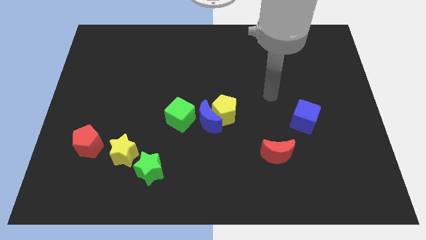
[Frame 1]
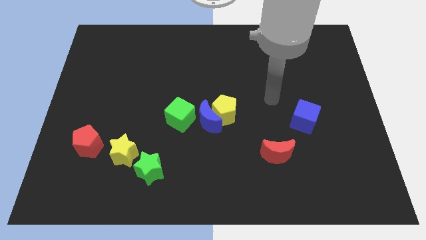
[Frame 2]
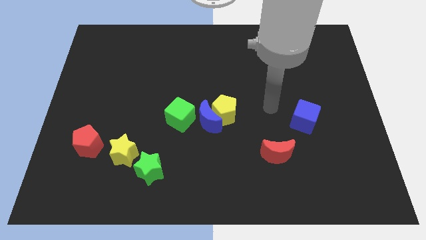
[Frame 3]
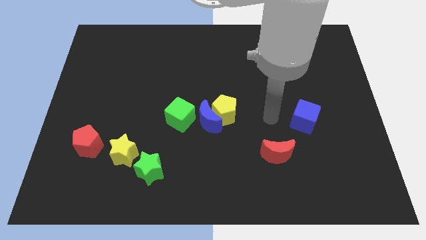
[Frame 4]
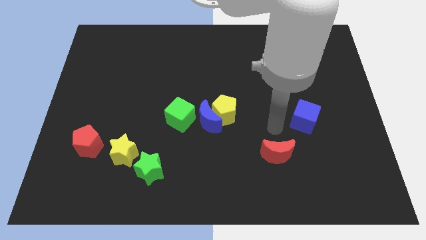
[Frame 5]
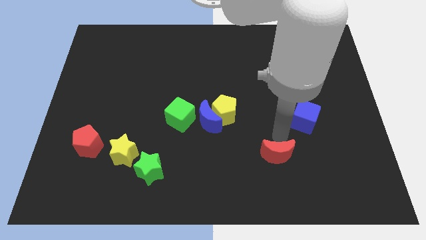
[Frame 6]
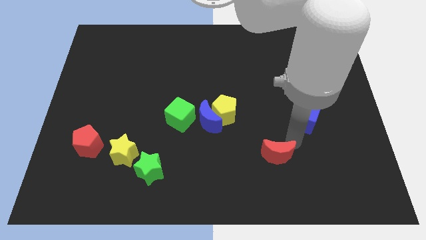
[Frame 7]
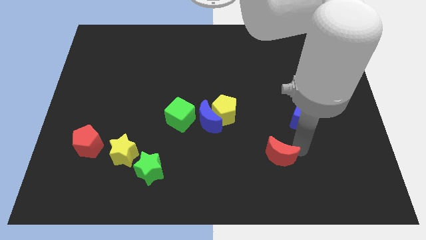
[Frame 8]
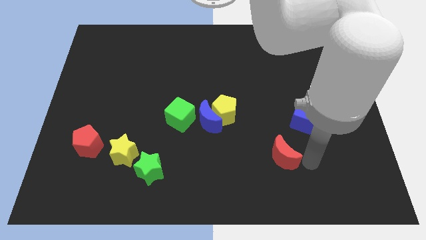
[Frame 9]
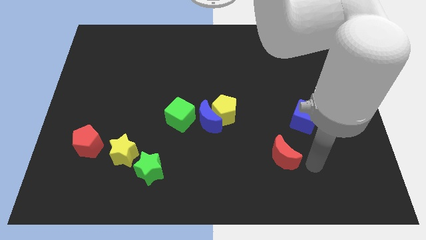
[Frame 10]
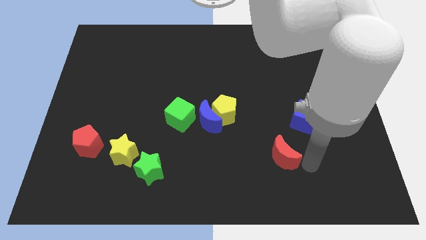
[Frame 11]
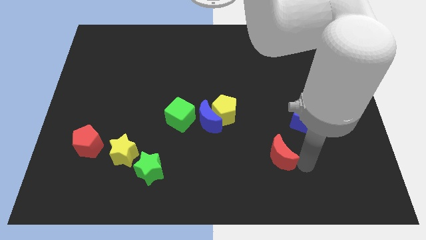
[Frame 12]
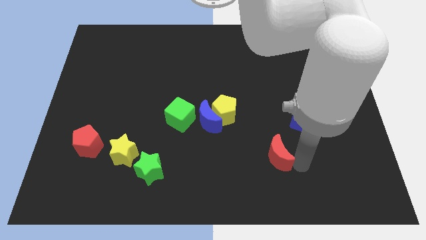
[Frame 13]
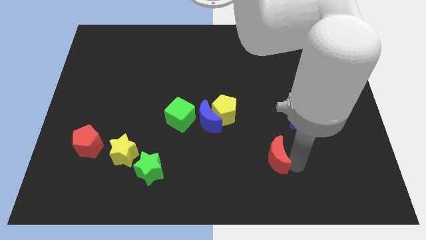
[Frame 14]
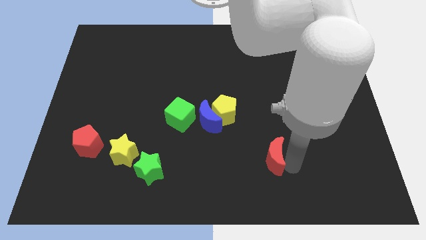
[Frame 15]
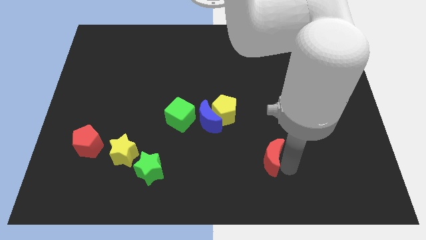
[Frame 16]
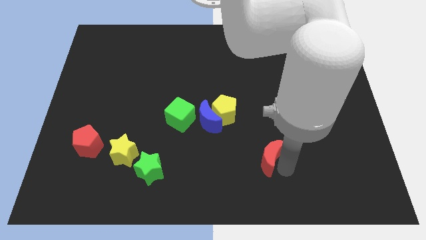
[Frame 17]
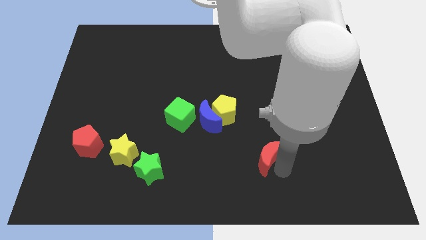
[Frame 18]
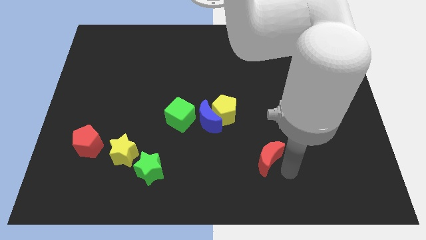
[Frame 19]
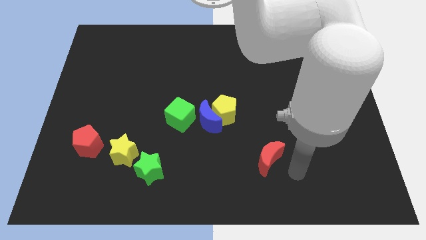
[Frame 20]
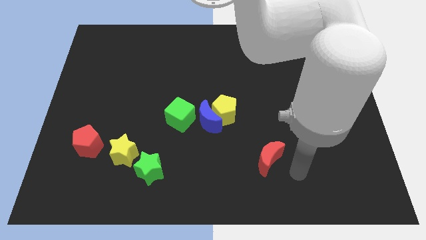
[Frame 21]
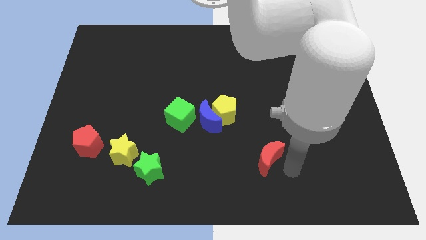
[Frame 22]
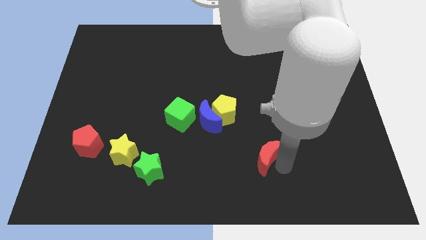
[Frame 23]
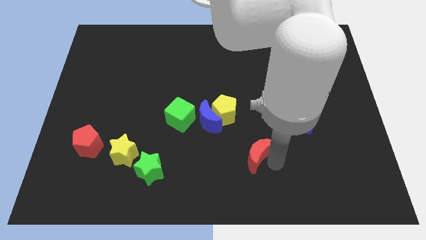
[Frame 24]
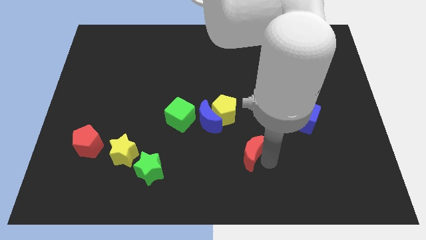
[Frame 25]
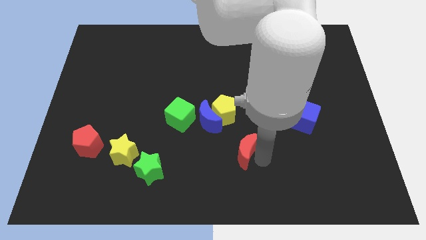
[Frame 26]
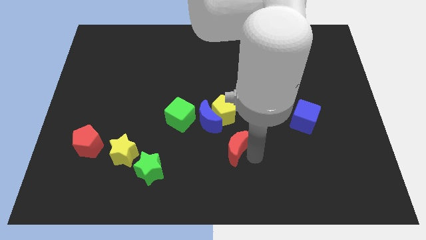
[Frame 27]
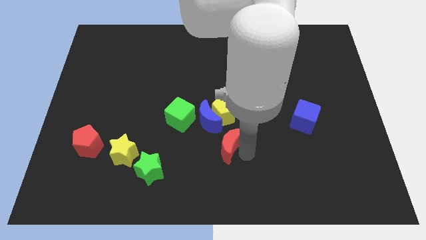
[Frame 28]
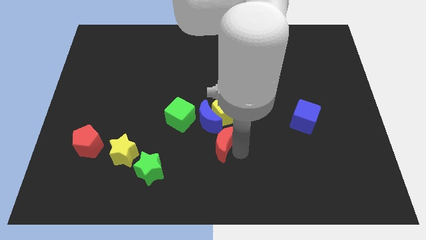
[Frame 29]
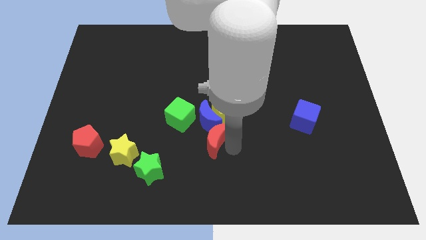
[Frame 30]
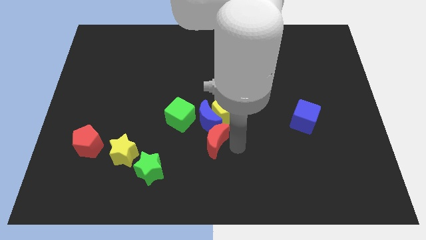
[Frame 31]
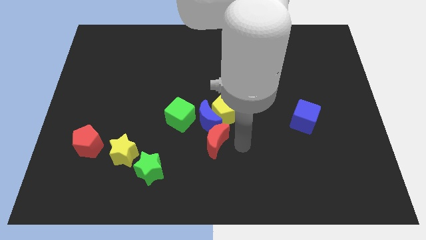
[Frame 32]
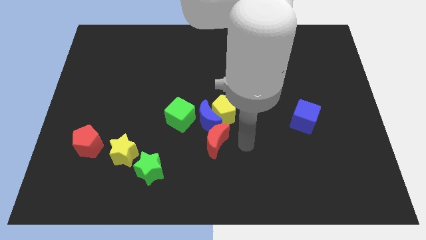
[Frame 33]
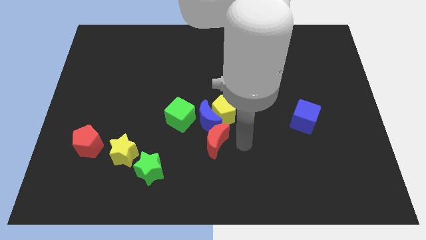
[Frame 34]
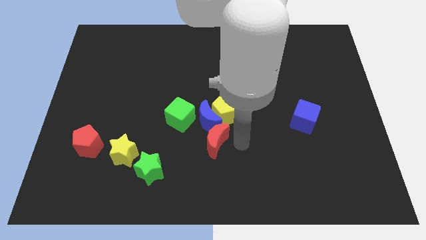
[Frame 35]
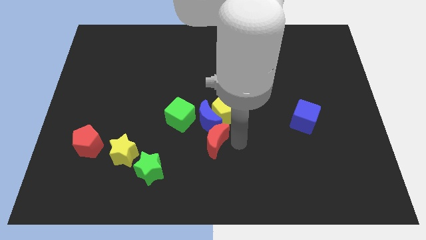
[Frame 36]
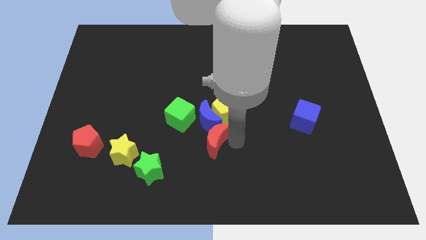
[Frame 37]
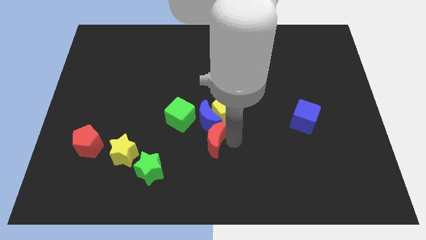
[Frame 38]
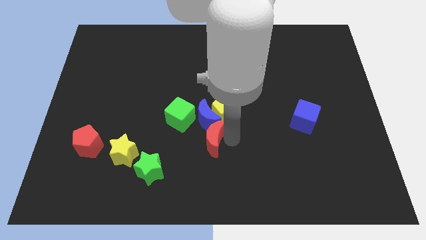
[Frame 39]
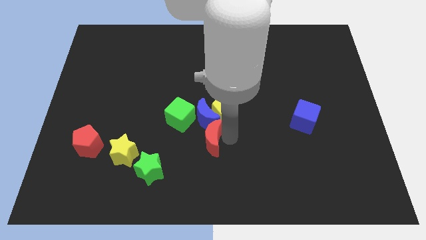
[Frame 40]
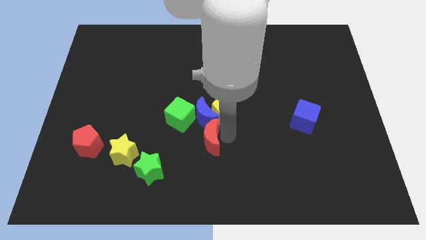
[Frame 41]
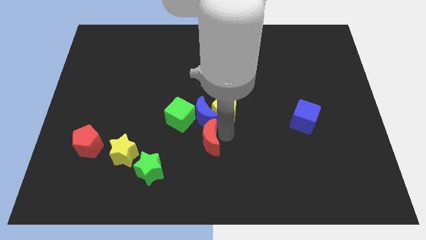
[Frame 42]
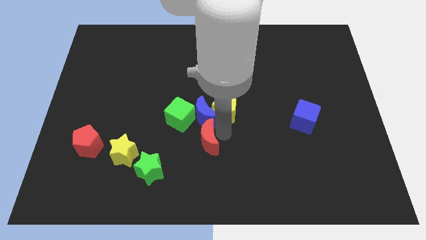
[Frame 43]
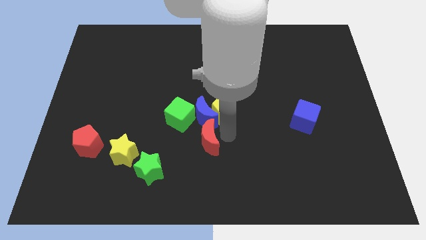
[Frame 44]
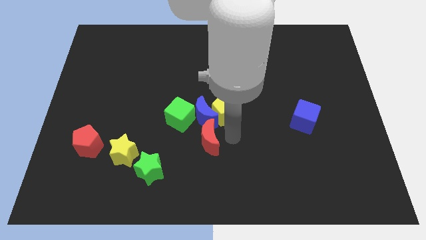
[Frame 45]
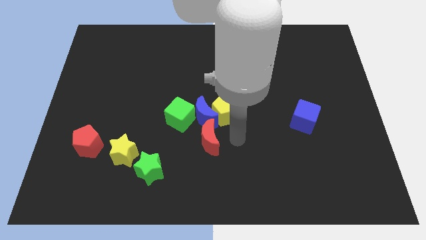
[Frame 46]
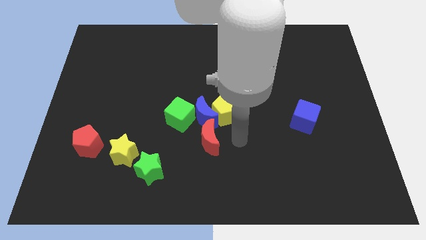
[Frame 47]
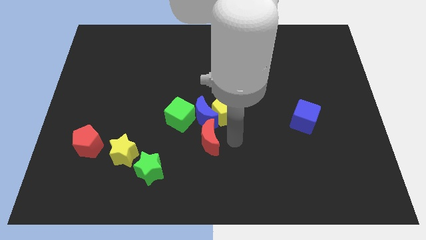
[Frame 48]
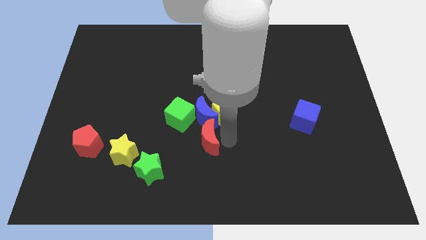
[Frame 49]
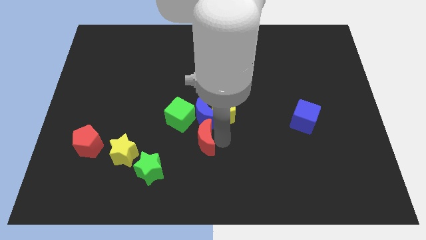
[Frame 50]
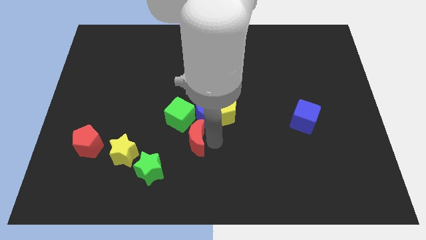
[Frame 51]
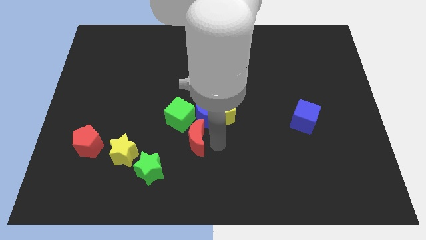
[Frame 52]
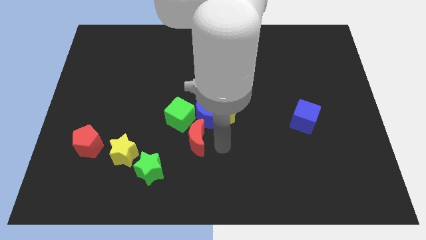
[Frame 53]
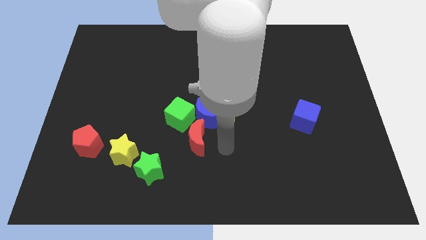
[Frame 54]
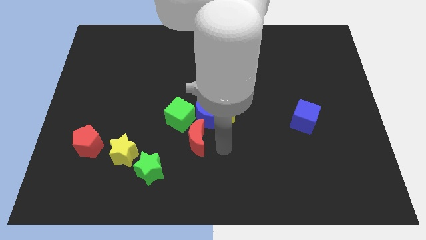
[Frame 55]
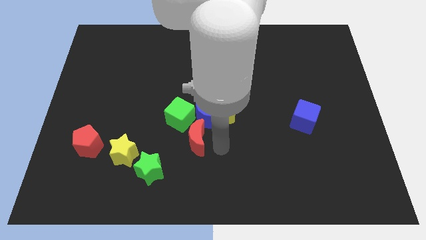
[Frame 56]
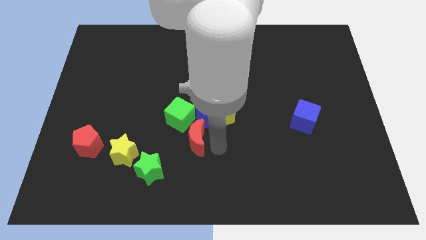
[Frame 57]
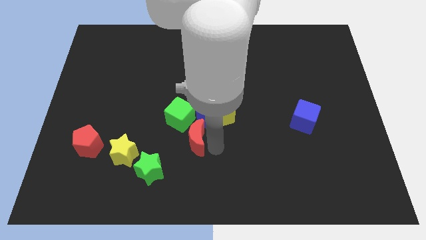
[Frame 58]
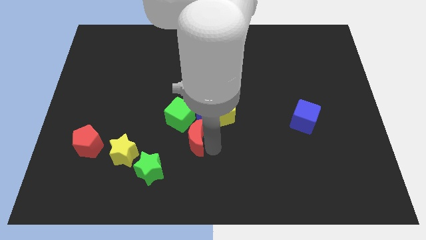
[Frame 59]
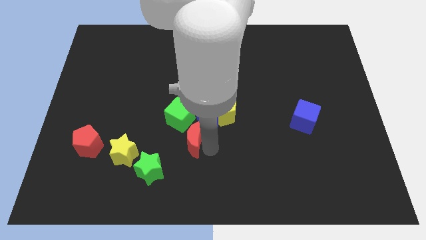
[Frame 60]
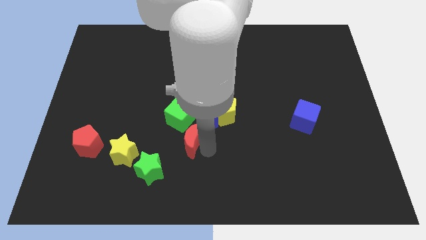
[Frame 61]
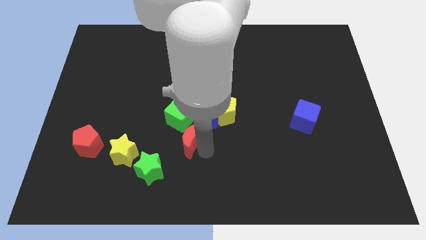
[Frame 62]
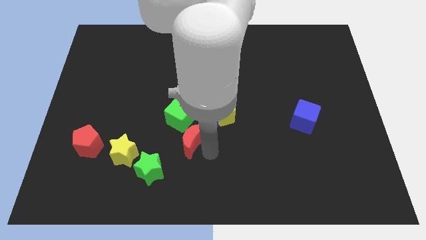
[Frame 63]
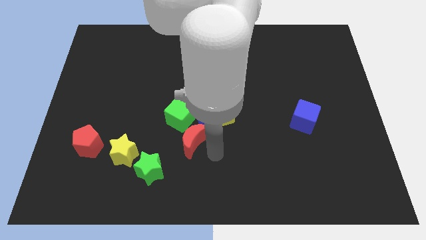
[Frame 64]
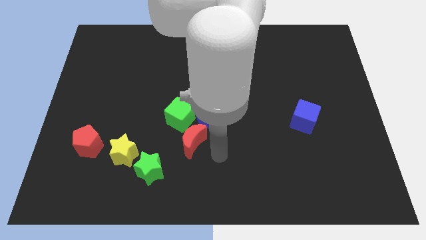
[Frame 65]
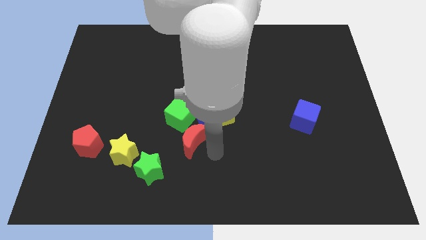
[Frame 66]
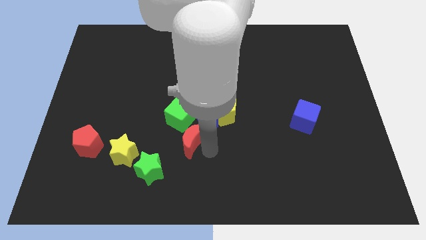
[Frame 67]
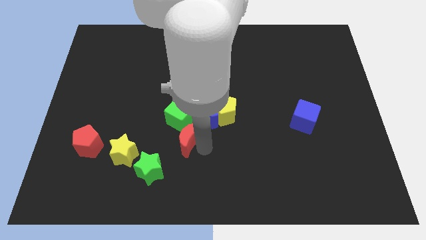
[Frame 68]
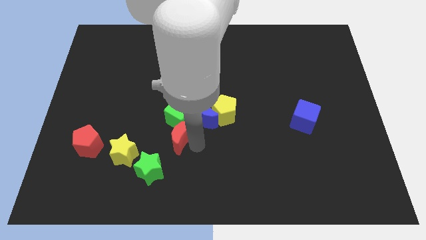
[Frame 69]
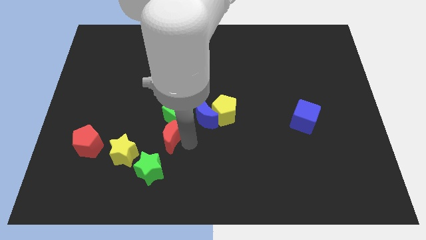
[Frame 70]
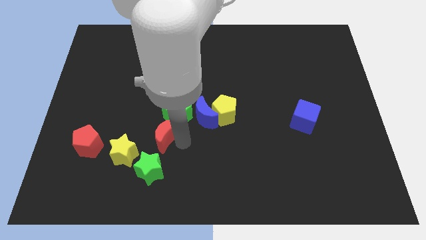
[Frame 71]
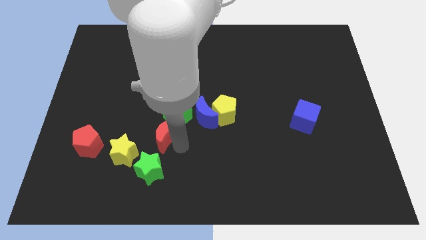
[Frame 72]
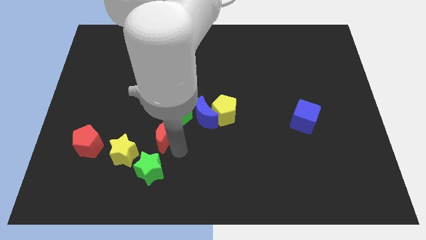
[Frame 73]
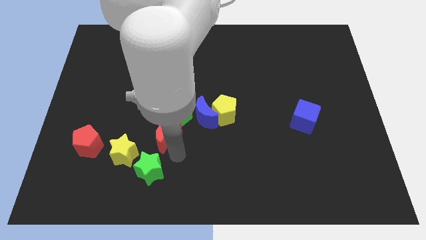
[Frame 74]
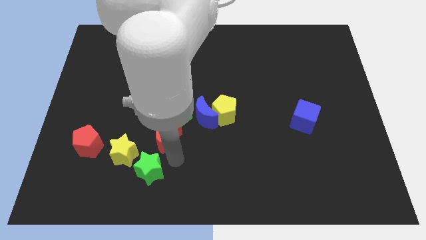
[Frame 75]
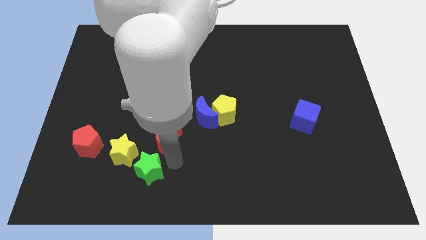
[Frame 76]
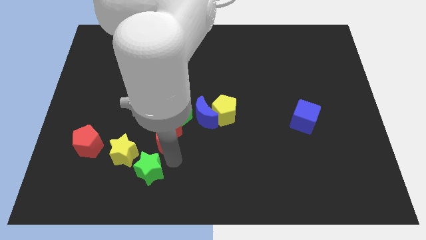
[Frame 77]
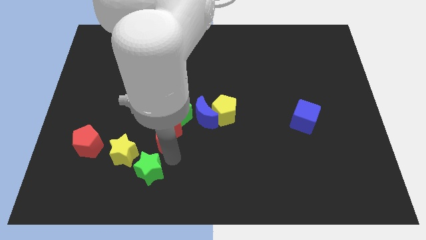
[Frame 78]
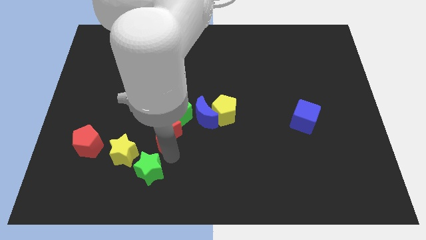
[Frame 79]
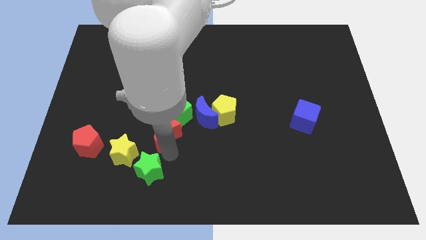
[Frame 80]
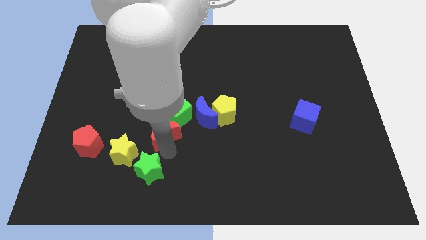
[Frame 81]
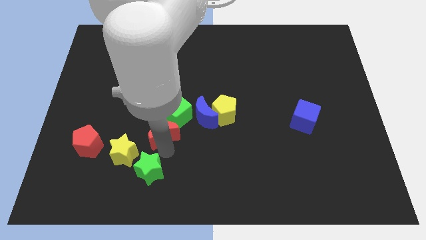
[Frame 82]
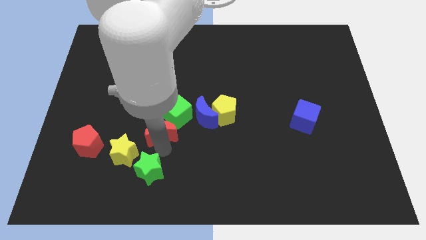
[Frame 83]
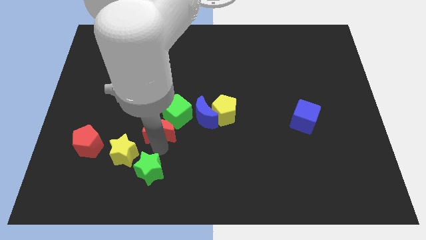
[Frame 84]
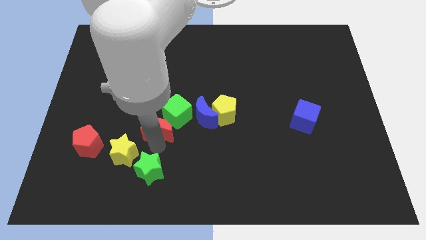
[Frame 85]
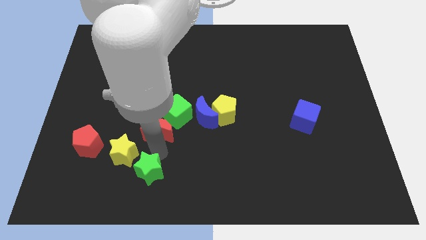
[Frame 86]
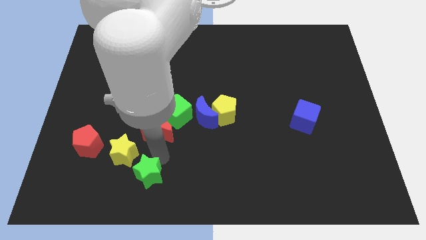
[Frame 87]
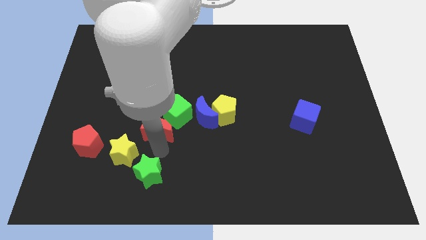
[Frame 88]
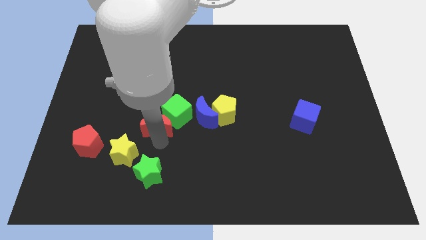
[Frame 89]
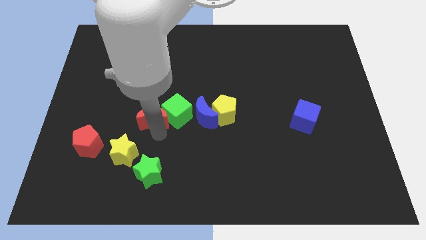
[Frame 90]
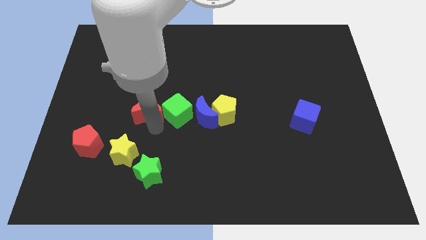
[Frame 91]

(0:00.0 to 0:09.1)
push the red moon to the top left of the green cube
